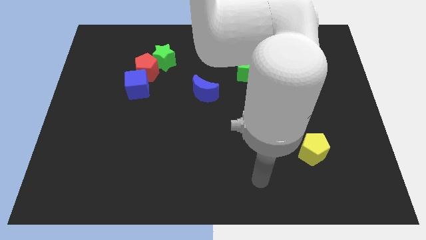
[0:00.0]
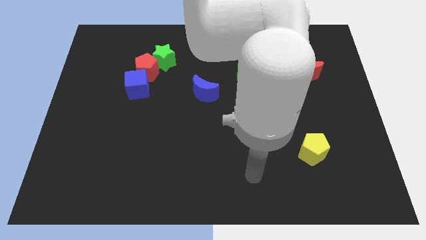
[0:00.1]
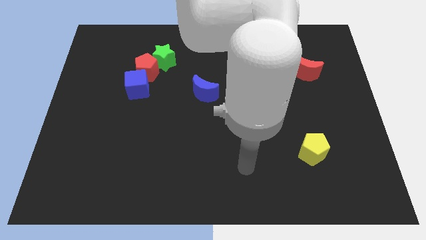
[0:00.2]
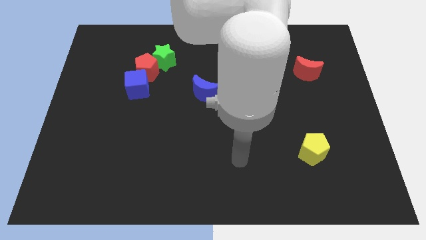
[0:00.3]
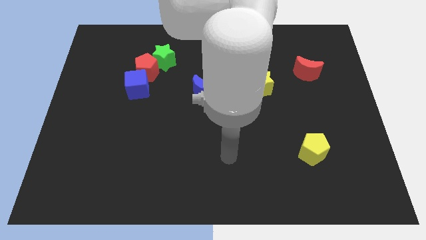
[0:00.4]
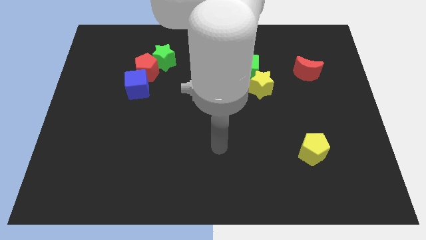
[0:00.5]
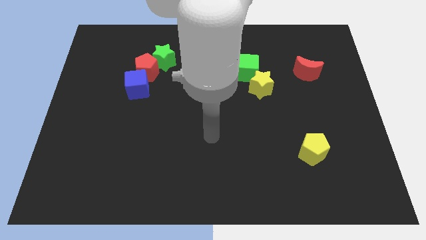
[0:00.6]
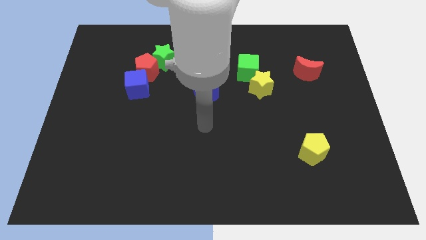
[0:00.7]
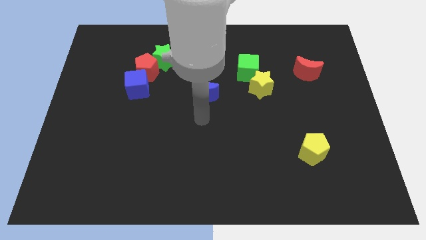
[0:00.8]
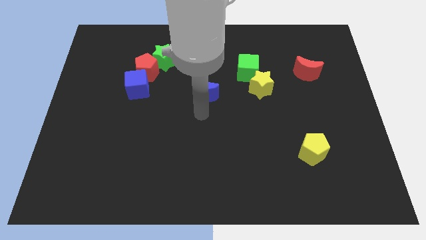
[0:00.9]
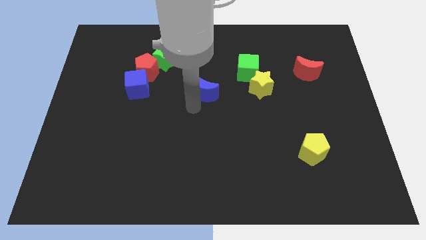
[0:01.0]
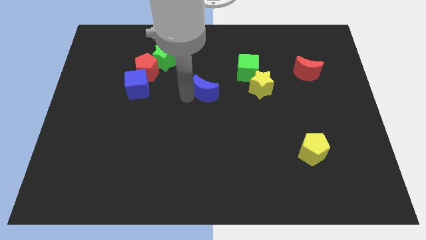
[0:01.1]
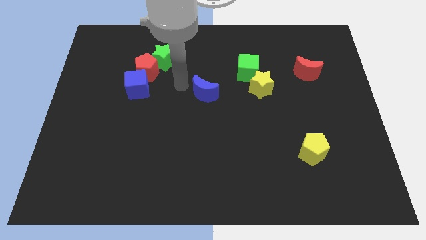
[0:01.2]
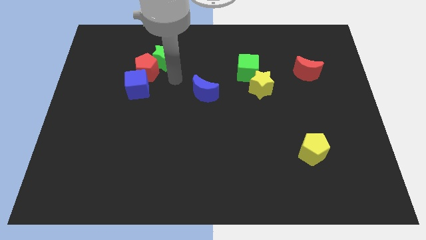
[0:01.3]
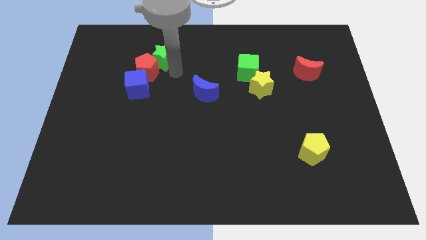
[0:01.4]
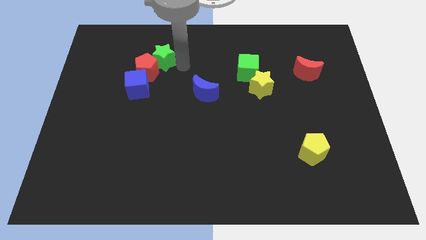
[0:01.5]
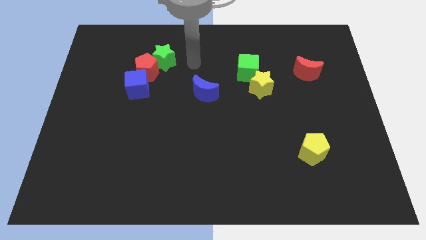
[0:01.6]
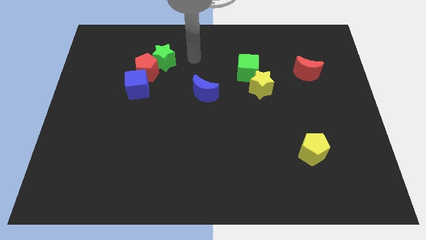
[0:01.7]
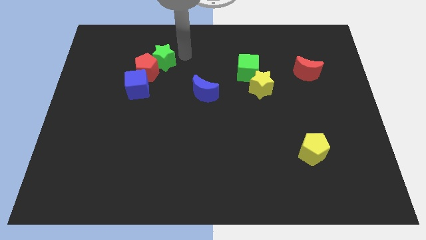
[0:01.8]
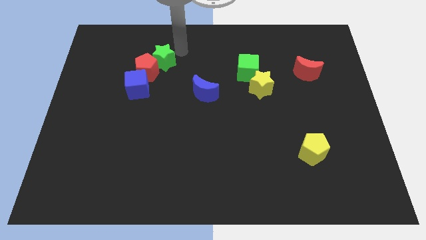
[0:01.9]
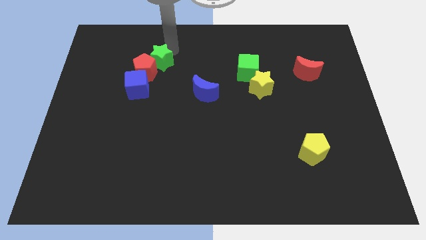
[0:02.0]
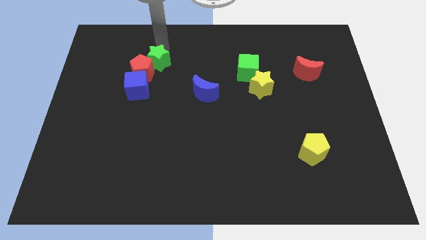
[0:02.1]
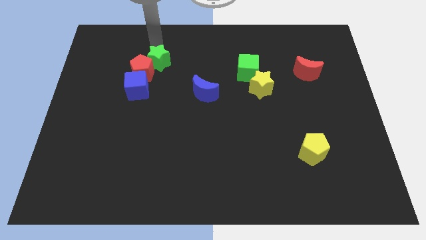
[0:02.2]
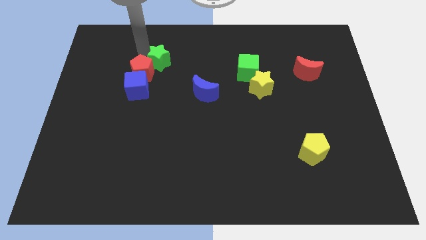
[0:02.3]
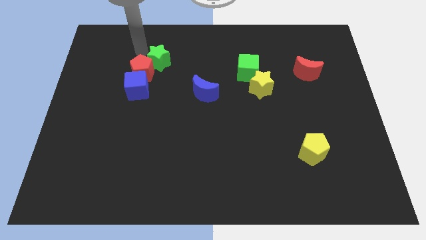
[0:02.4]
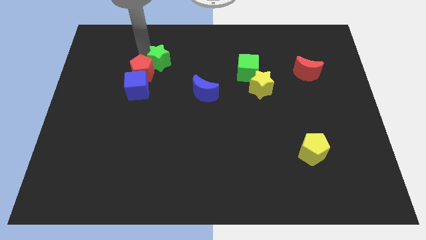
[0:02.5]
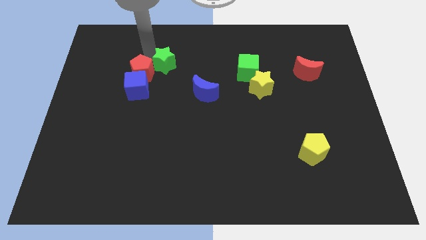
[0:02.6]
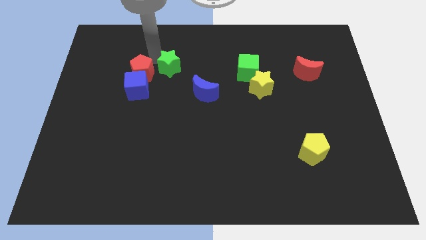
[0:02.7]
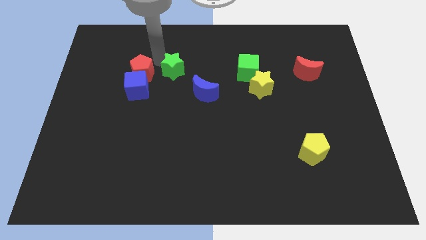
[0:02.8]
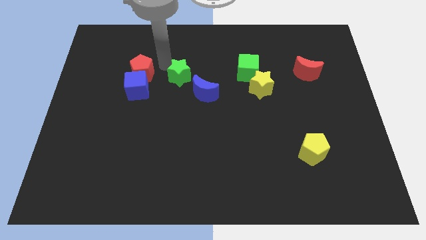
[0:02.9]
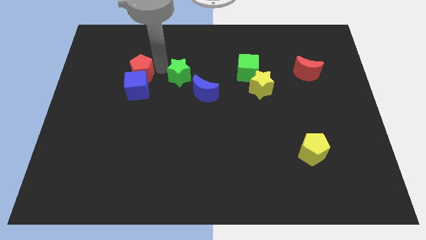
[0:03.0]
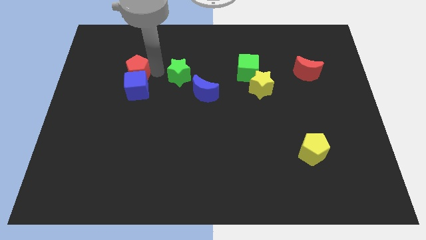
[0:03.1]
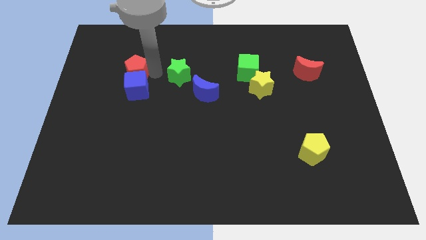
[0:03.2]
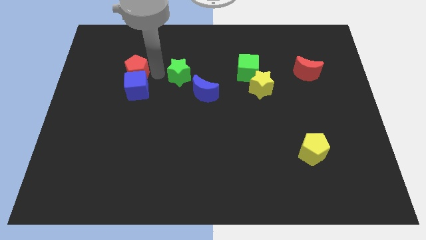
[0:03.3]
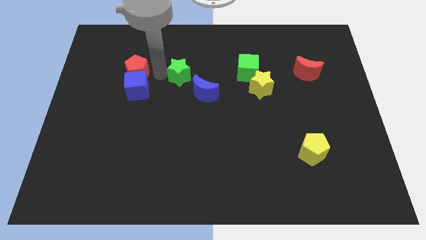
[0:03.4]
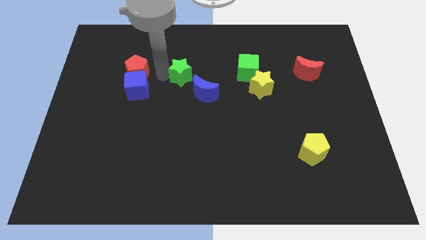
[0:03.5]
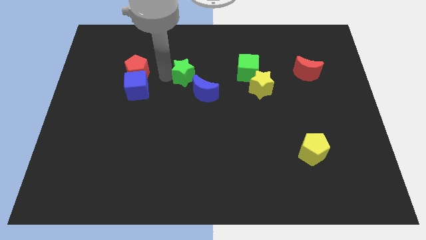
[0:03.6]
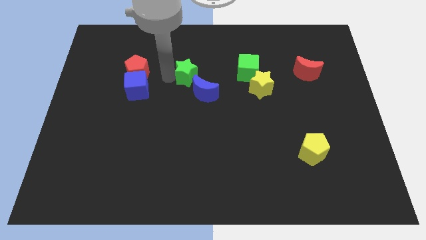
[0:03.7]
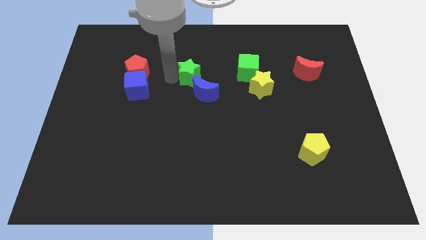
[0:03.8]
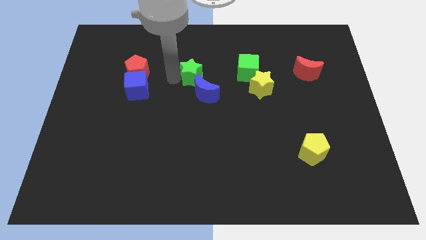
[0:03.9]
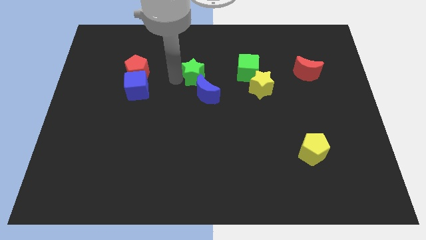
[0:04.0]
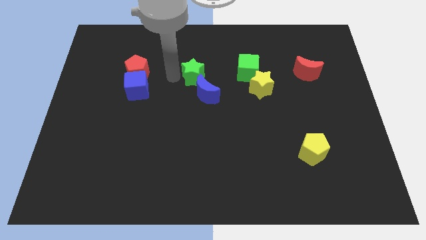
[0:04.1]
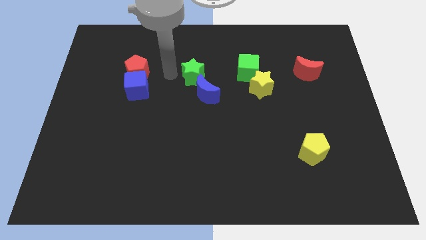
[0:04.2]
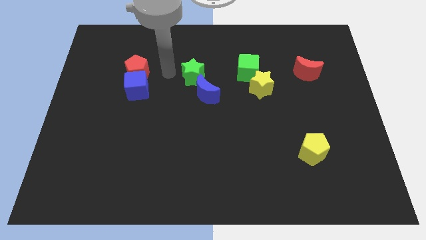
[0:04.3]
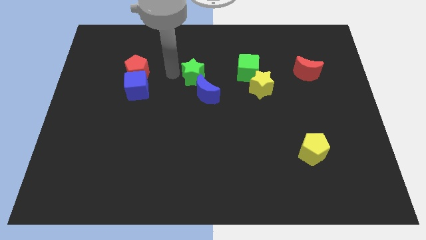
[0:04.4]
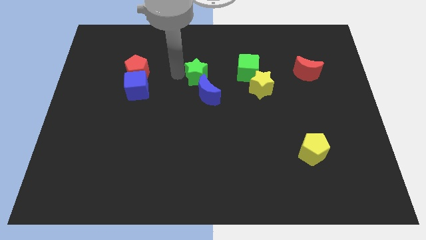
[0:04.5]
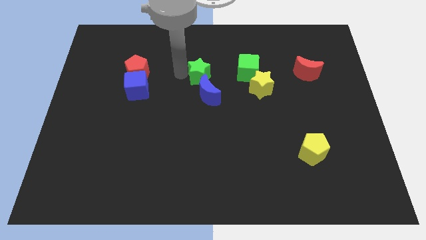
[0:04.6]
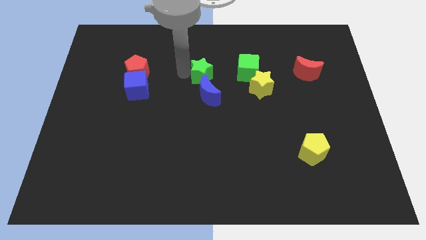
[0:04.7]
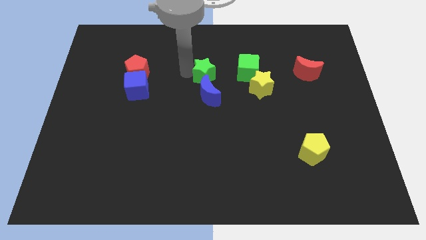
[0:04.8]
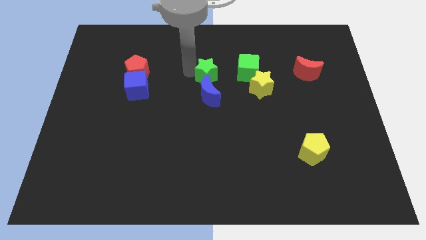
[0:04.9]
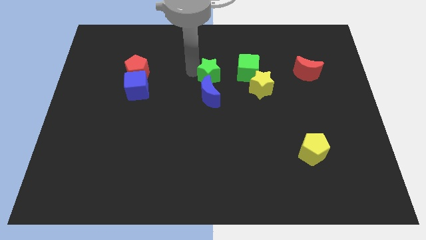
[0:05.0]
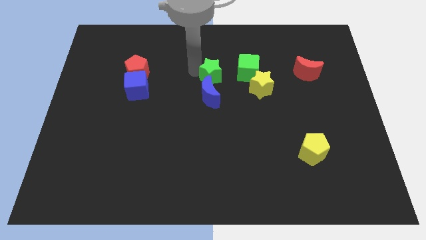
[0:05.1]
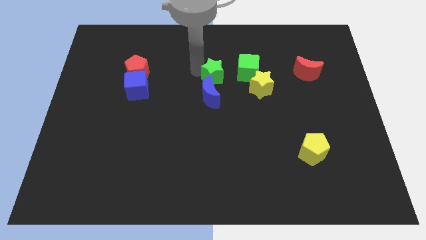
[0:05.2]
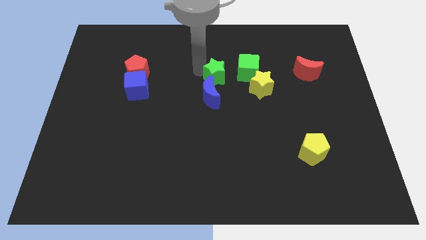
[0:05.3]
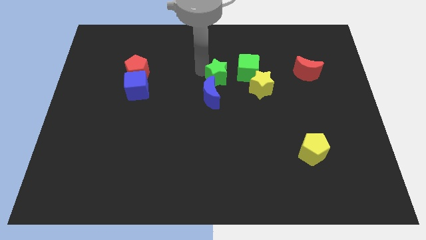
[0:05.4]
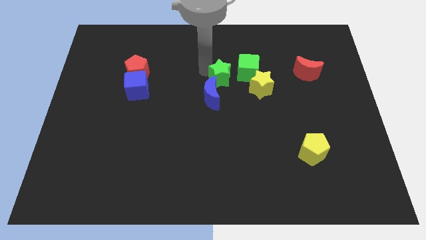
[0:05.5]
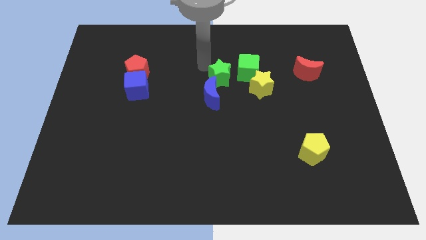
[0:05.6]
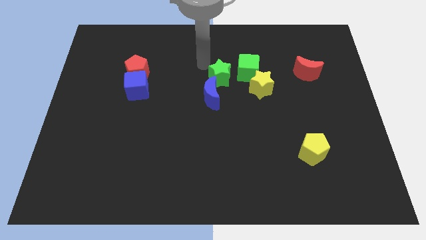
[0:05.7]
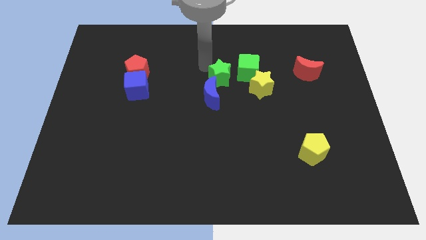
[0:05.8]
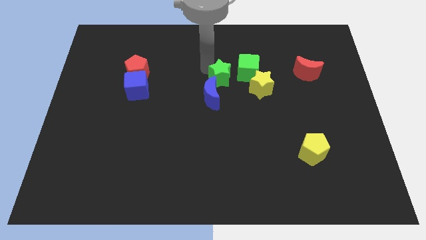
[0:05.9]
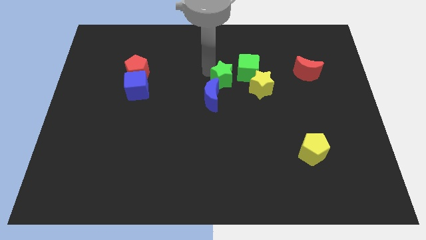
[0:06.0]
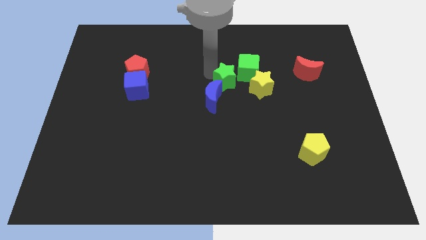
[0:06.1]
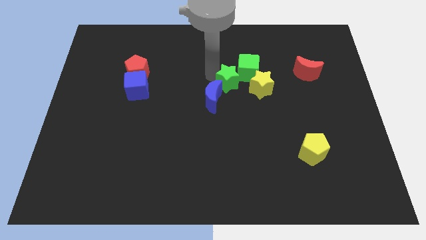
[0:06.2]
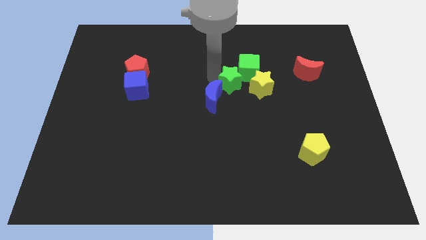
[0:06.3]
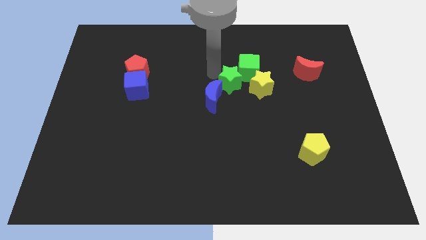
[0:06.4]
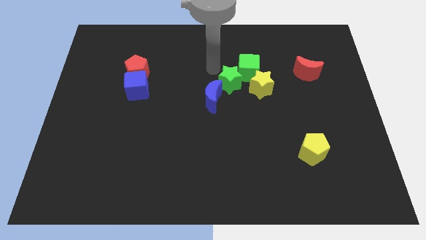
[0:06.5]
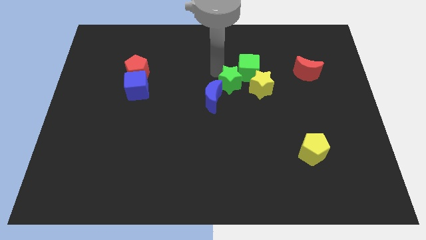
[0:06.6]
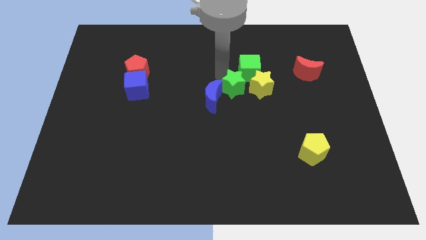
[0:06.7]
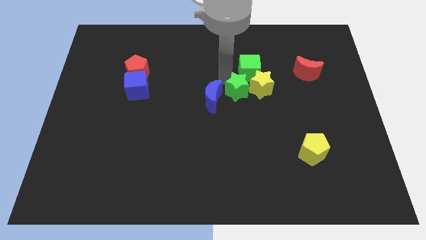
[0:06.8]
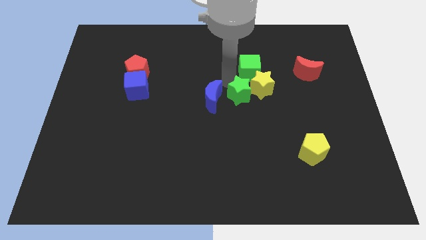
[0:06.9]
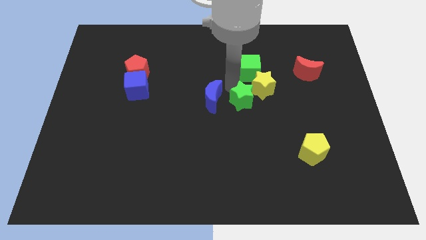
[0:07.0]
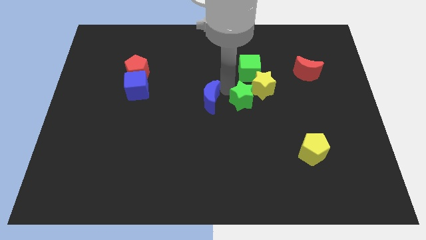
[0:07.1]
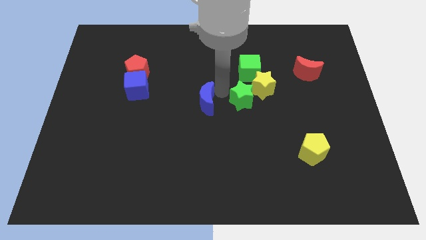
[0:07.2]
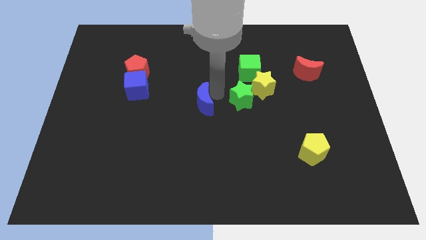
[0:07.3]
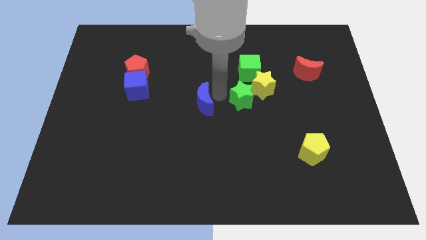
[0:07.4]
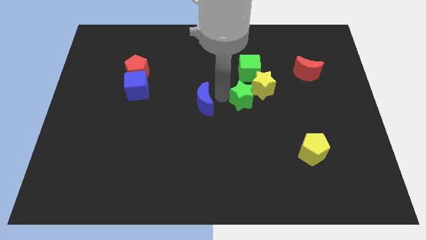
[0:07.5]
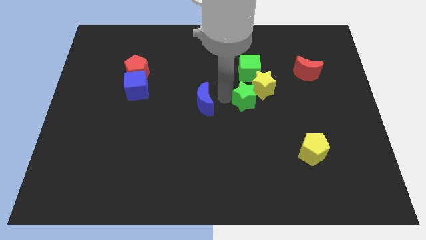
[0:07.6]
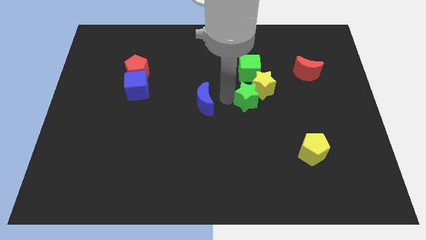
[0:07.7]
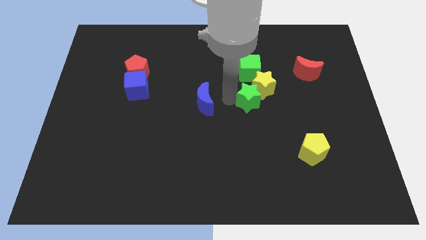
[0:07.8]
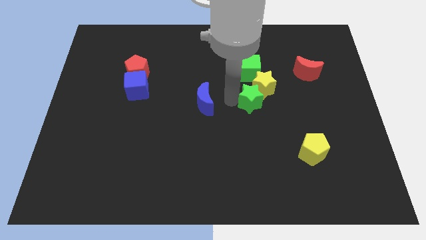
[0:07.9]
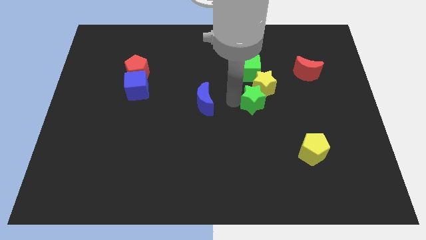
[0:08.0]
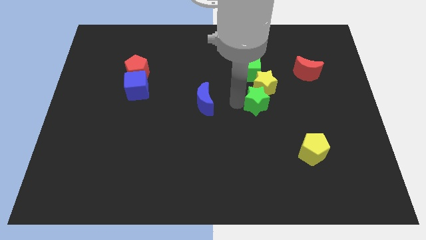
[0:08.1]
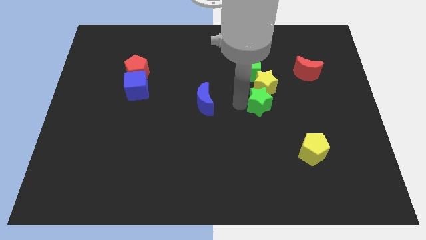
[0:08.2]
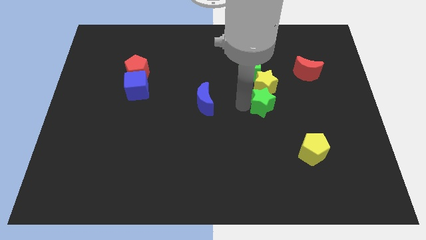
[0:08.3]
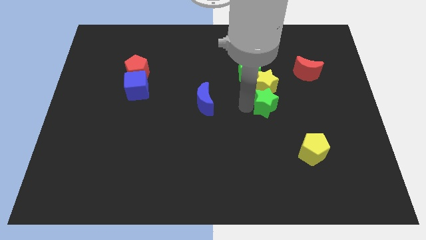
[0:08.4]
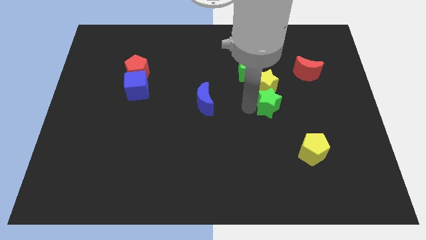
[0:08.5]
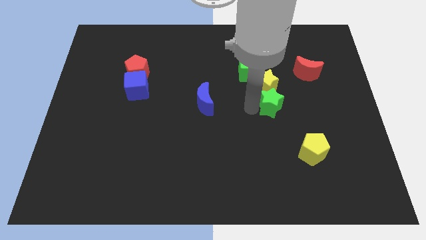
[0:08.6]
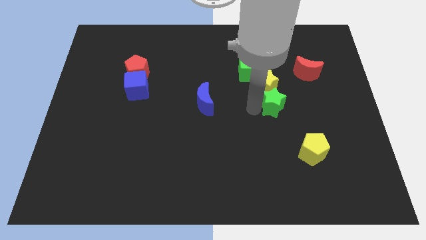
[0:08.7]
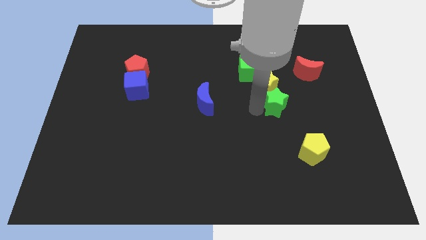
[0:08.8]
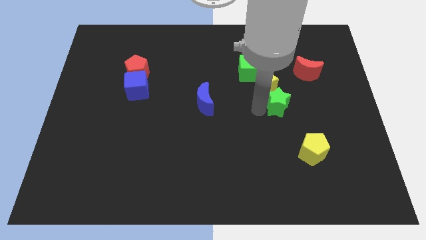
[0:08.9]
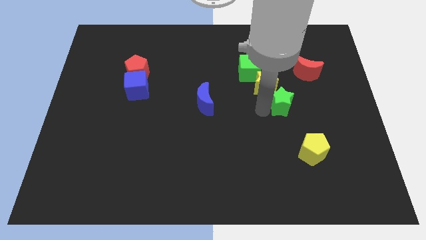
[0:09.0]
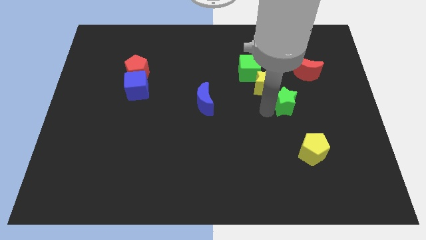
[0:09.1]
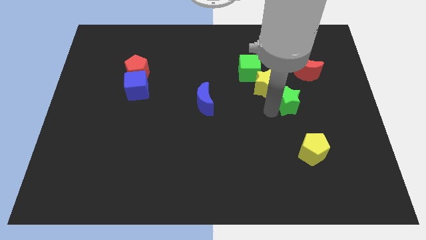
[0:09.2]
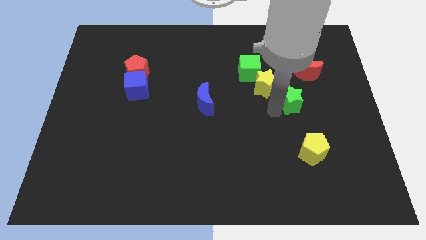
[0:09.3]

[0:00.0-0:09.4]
slide the green star right of the yellow star
